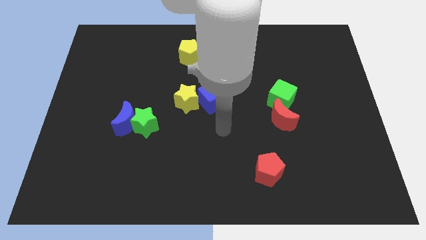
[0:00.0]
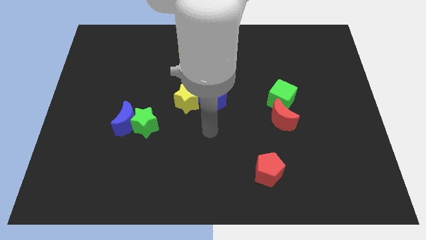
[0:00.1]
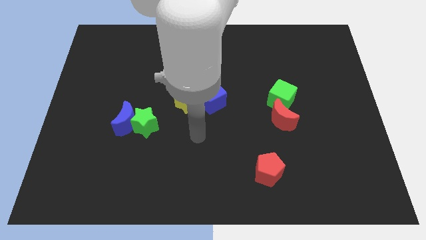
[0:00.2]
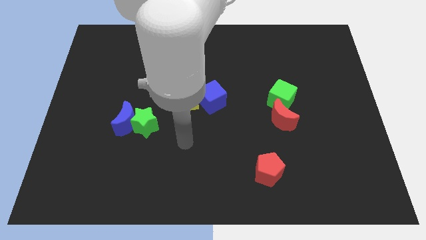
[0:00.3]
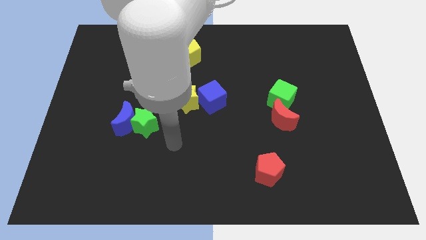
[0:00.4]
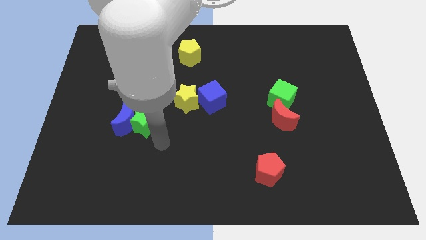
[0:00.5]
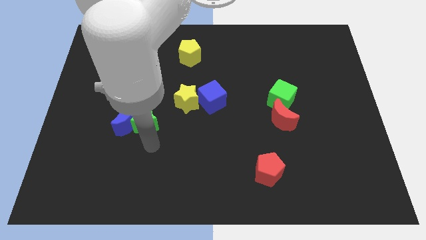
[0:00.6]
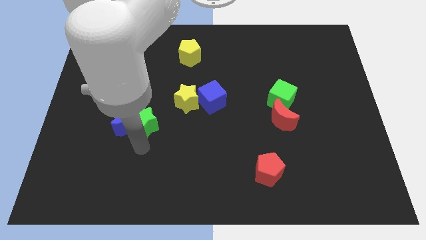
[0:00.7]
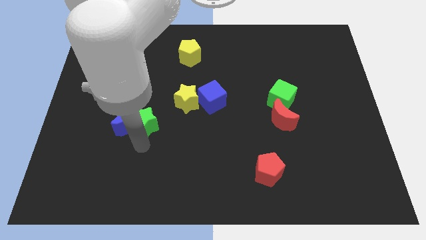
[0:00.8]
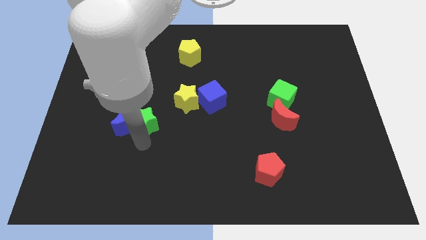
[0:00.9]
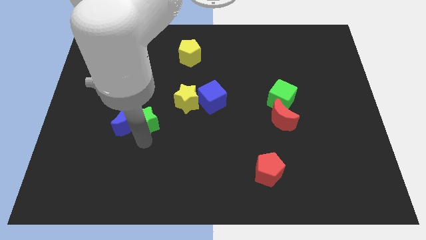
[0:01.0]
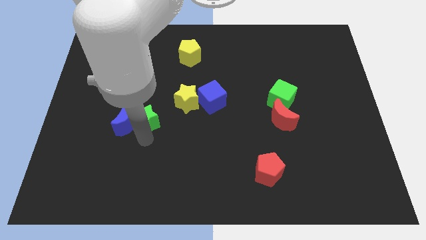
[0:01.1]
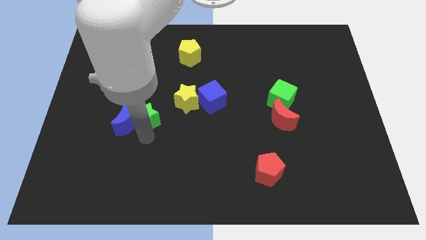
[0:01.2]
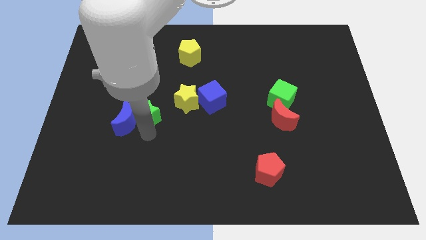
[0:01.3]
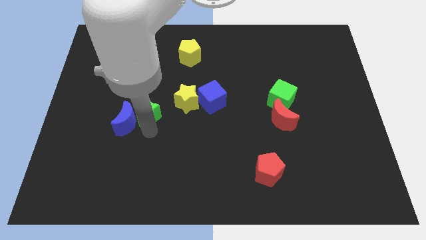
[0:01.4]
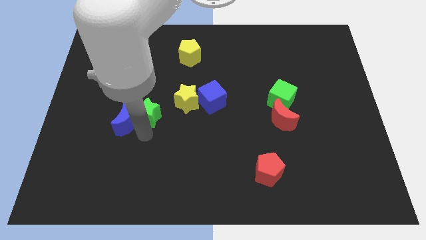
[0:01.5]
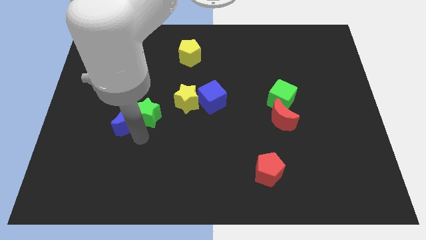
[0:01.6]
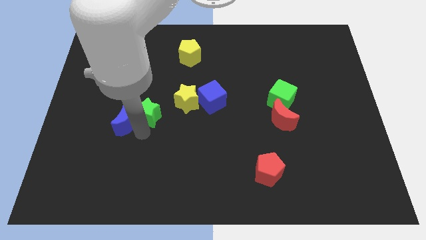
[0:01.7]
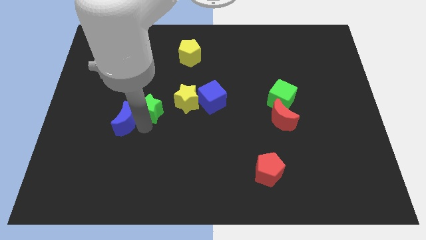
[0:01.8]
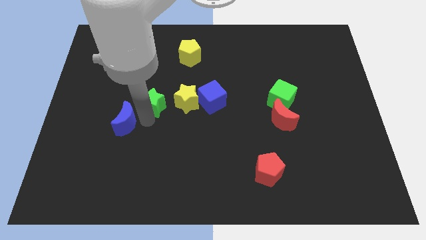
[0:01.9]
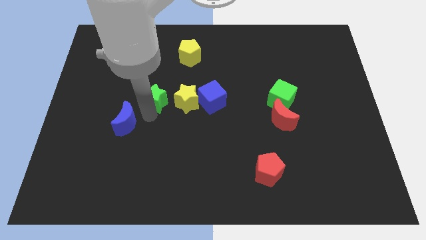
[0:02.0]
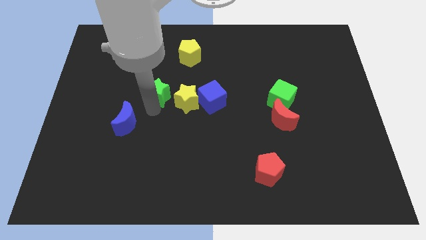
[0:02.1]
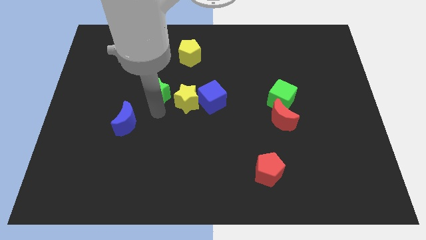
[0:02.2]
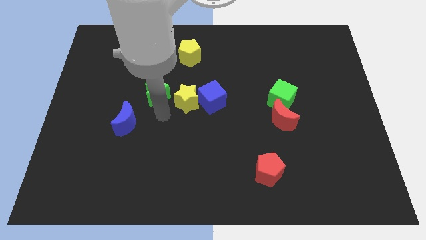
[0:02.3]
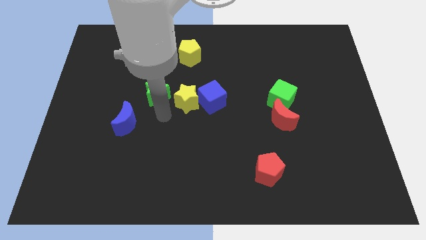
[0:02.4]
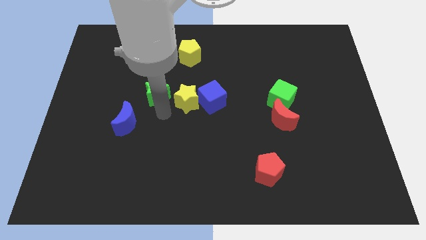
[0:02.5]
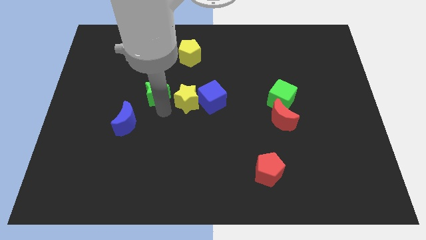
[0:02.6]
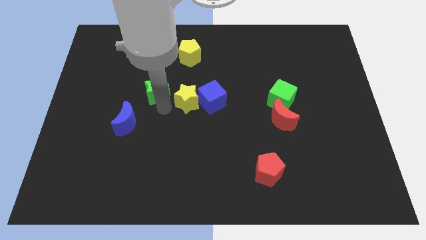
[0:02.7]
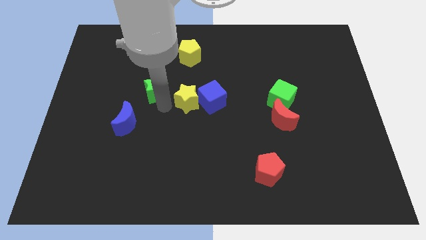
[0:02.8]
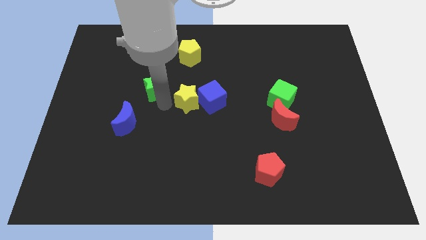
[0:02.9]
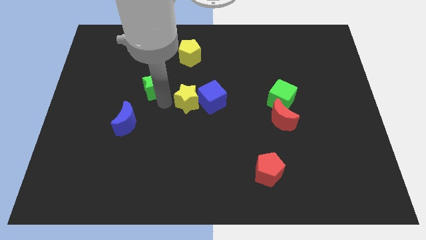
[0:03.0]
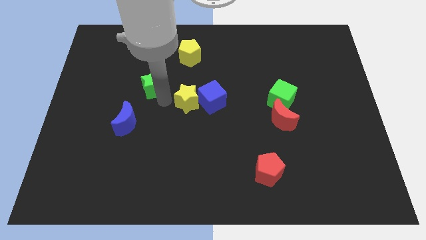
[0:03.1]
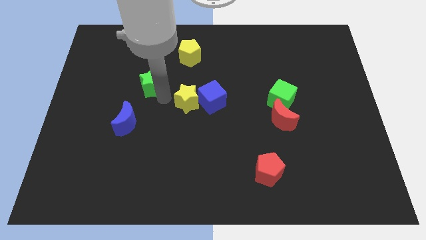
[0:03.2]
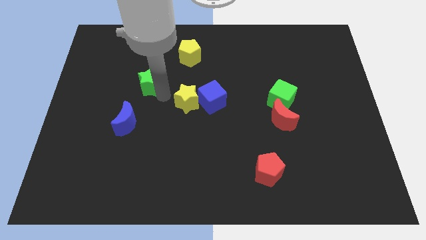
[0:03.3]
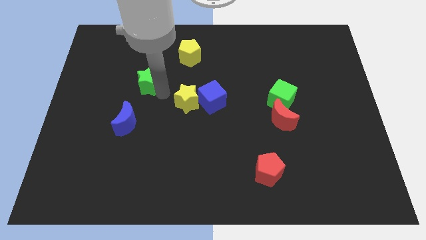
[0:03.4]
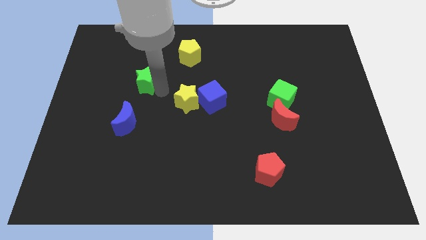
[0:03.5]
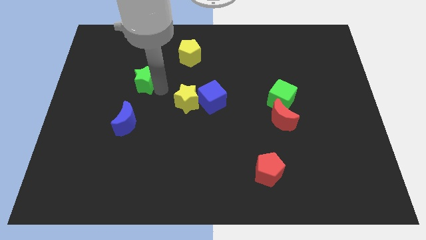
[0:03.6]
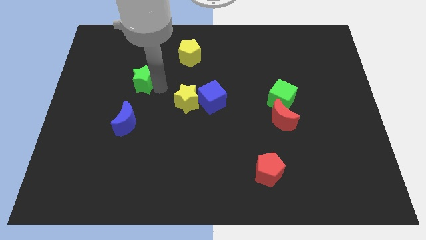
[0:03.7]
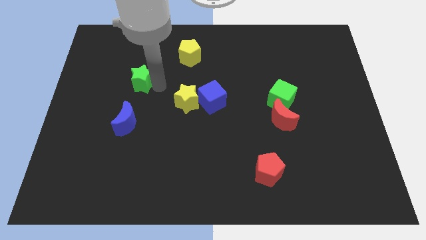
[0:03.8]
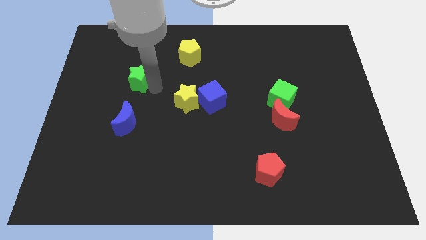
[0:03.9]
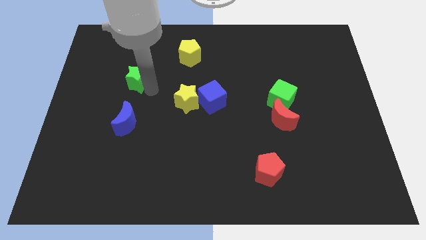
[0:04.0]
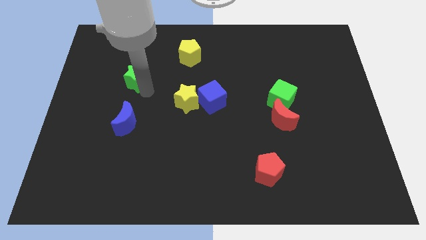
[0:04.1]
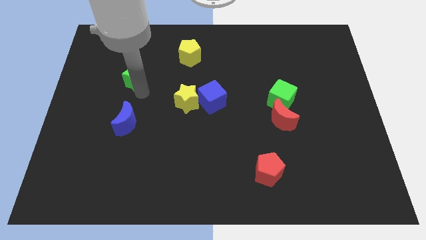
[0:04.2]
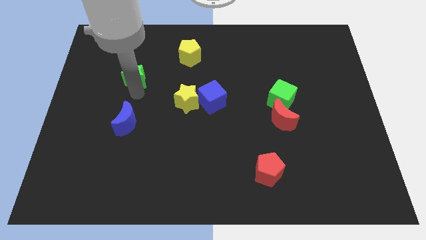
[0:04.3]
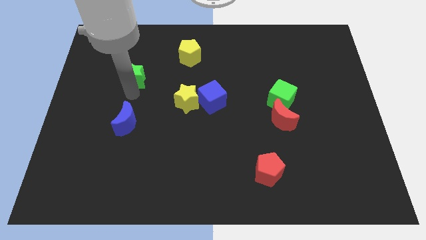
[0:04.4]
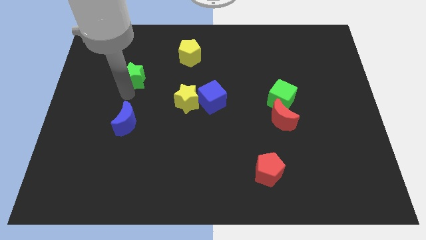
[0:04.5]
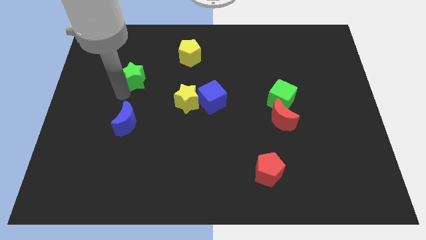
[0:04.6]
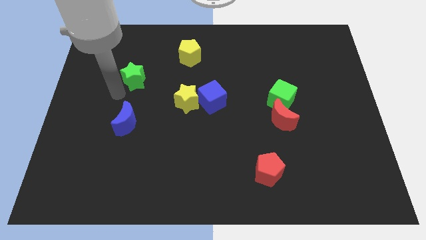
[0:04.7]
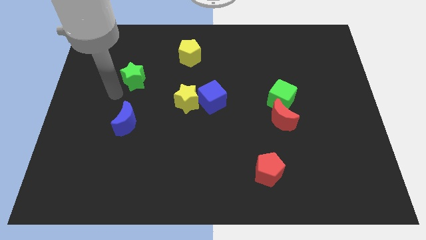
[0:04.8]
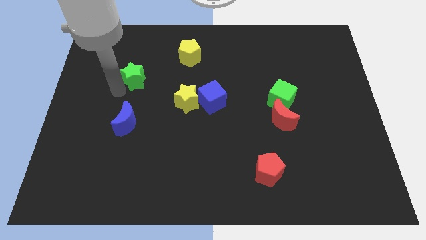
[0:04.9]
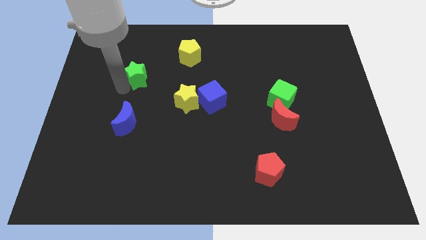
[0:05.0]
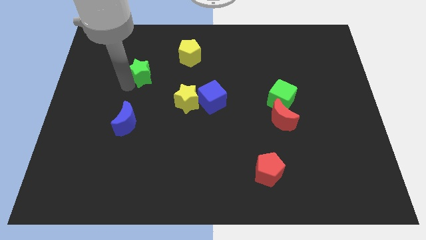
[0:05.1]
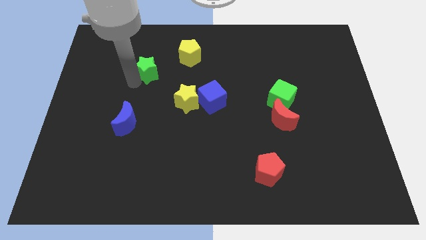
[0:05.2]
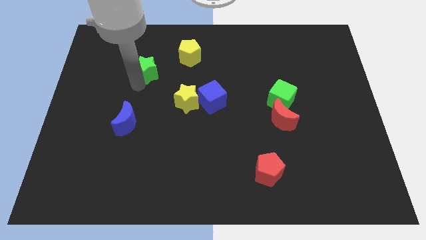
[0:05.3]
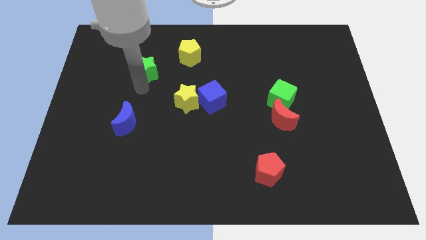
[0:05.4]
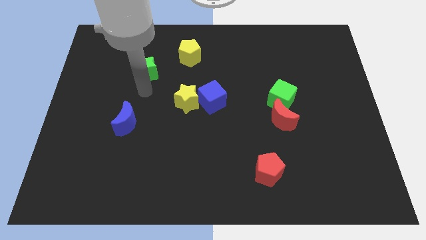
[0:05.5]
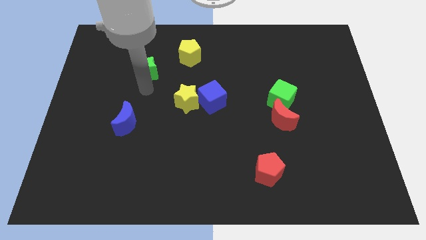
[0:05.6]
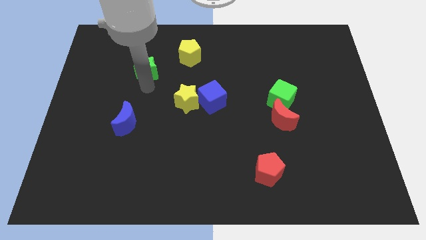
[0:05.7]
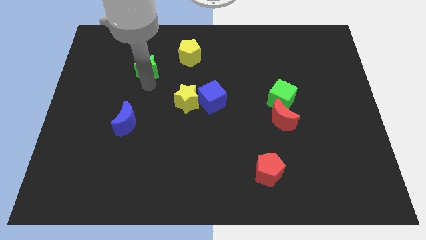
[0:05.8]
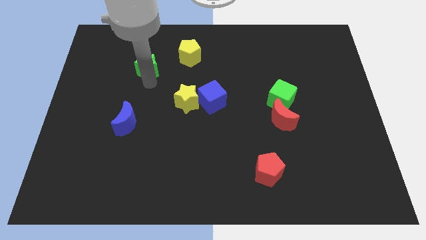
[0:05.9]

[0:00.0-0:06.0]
move the green star to the left side of the yellow pentagon

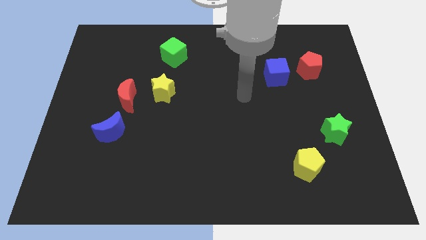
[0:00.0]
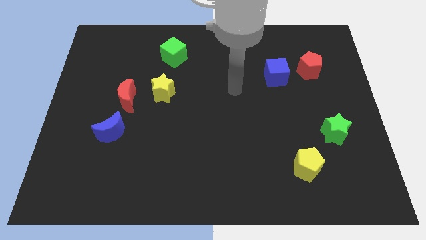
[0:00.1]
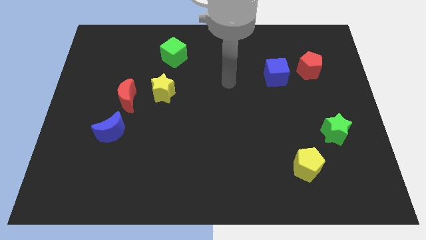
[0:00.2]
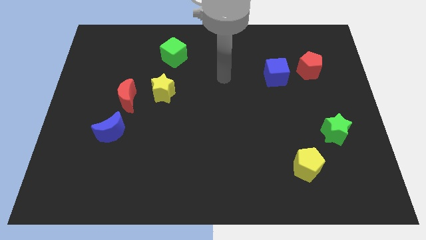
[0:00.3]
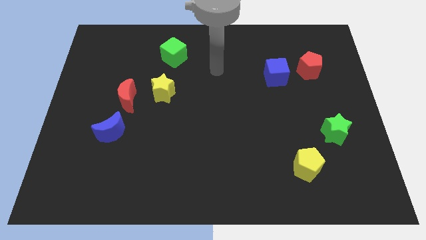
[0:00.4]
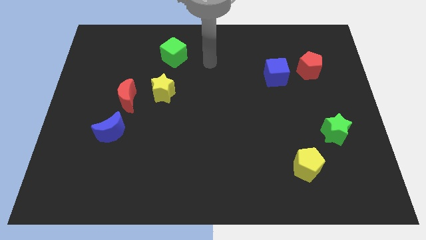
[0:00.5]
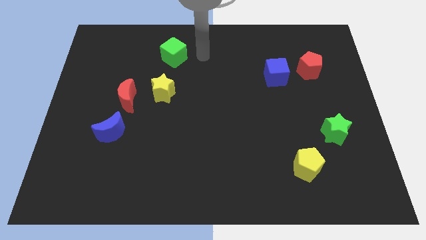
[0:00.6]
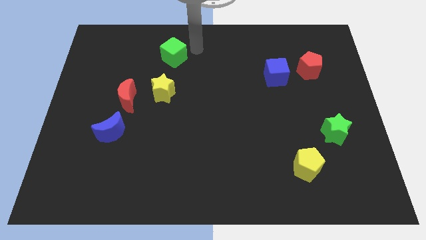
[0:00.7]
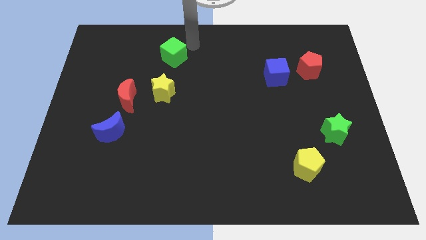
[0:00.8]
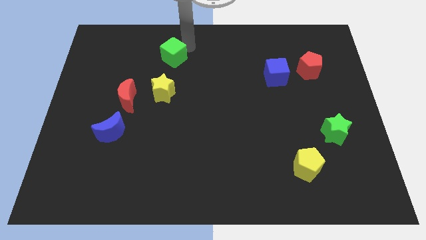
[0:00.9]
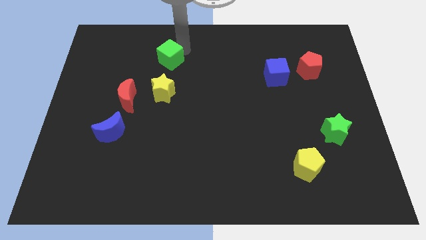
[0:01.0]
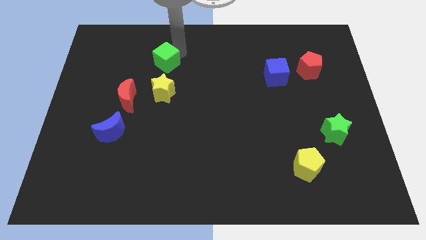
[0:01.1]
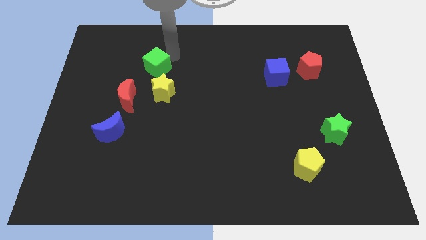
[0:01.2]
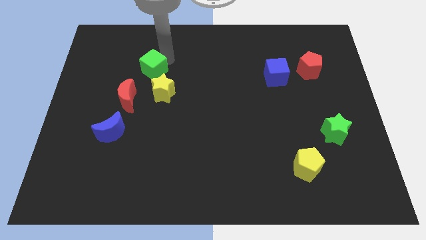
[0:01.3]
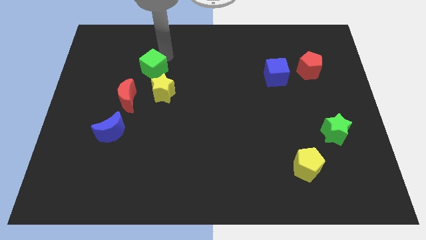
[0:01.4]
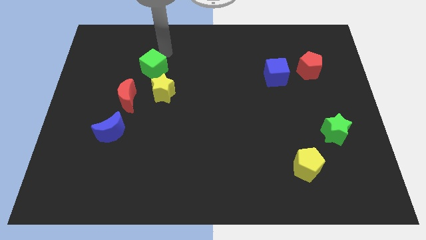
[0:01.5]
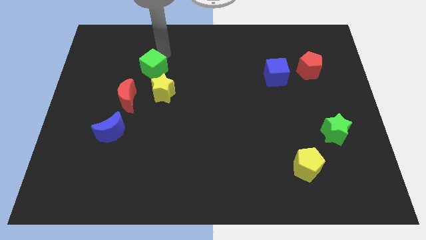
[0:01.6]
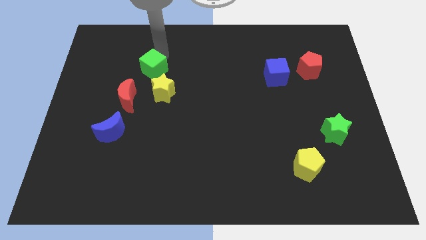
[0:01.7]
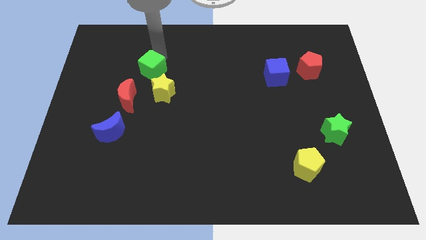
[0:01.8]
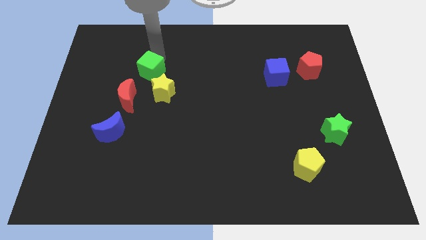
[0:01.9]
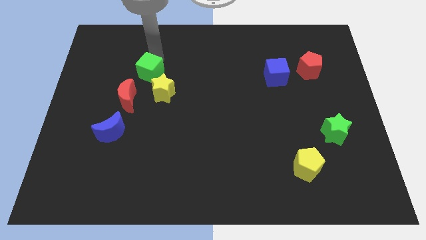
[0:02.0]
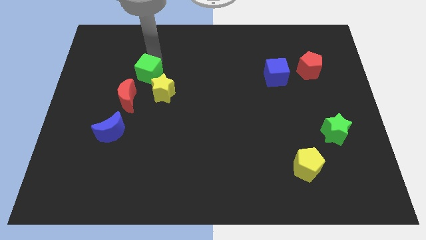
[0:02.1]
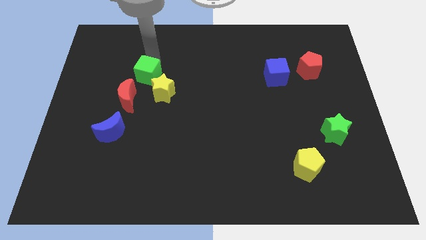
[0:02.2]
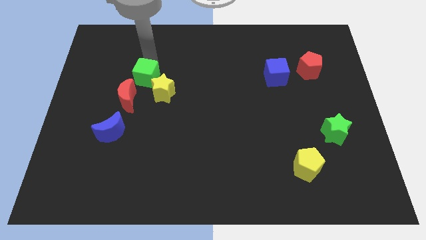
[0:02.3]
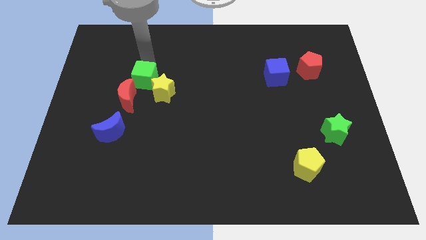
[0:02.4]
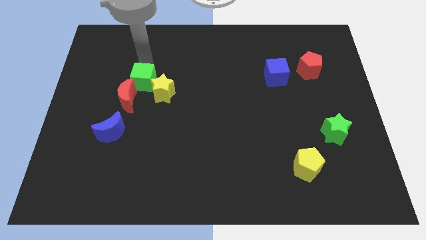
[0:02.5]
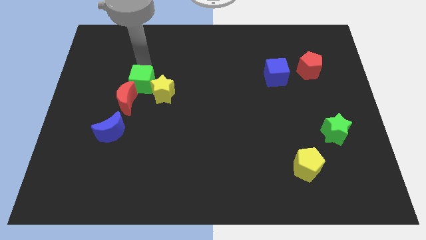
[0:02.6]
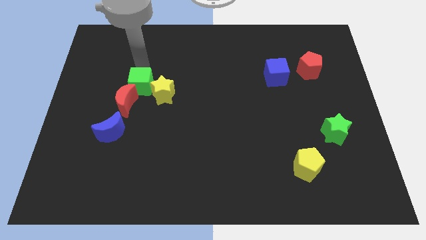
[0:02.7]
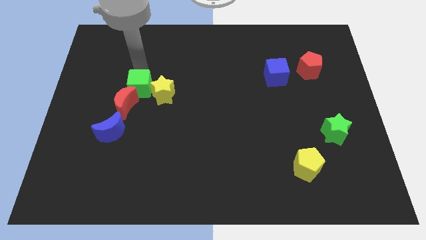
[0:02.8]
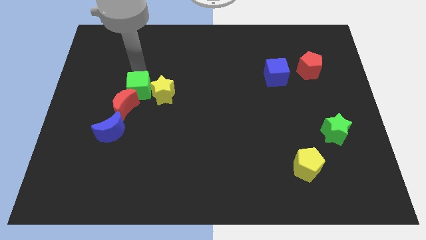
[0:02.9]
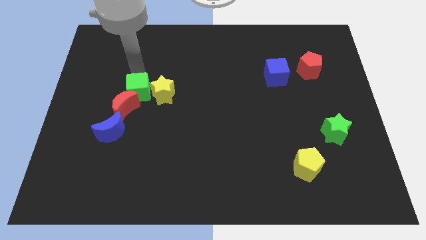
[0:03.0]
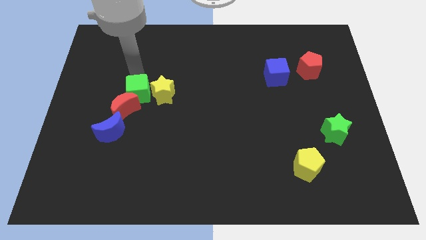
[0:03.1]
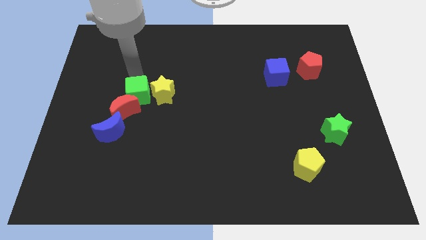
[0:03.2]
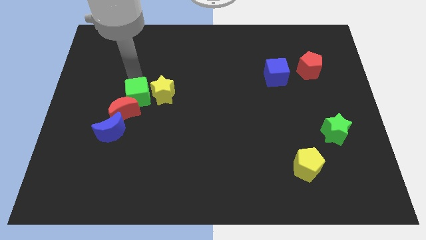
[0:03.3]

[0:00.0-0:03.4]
push the green cube to the top right of the blue moon
